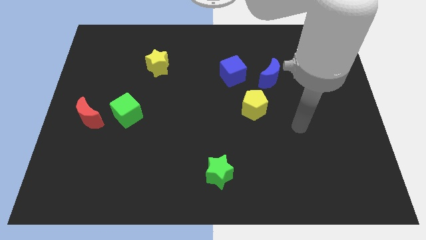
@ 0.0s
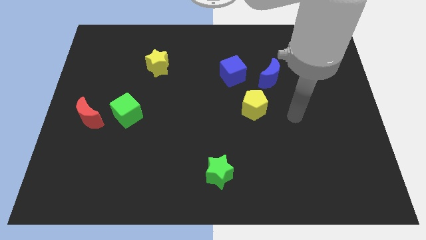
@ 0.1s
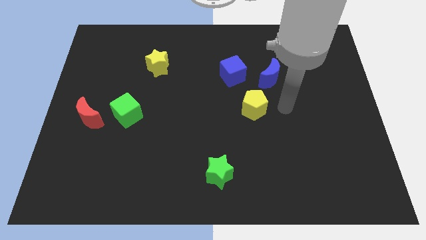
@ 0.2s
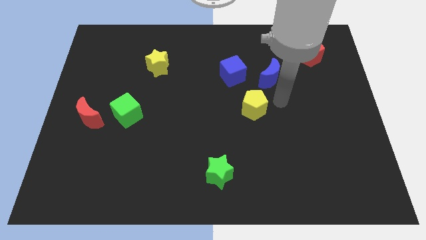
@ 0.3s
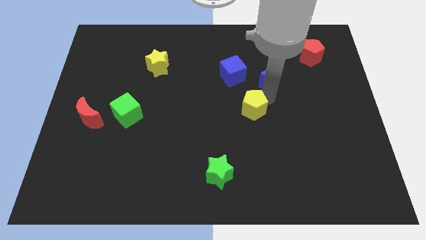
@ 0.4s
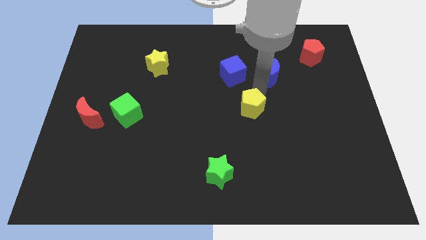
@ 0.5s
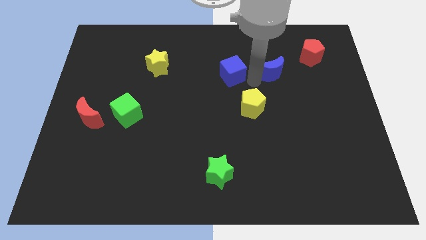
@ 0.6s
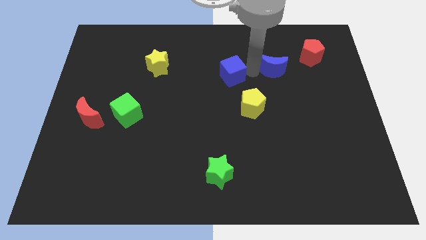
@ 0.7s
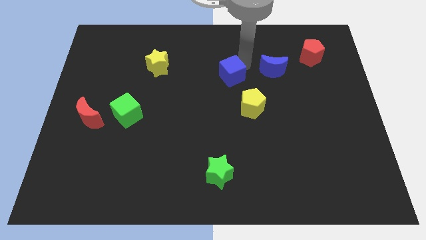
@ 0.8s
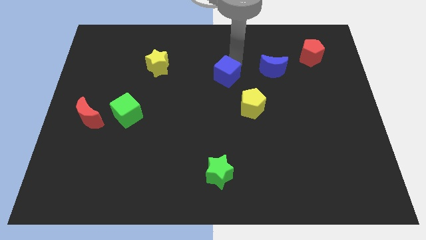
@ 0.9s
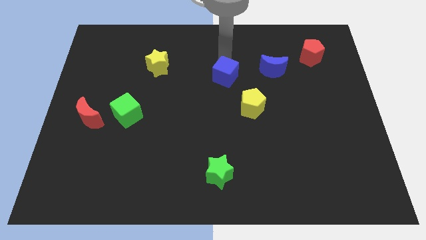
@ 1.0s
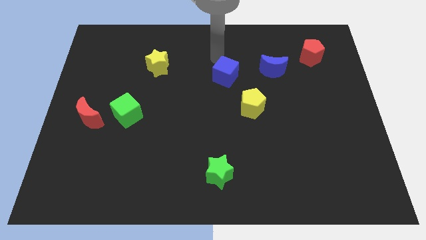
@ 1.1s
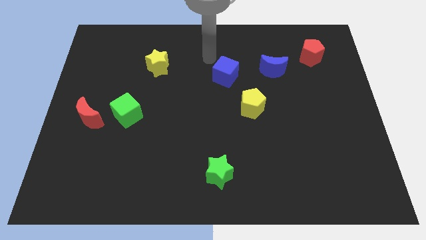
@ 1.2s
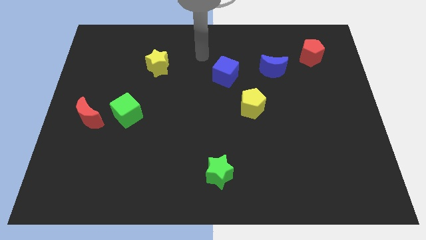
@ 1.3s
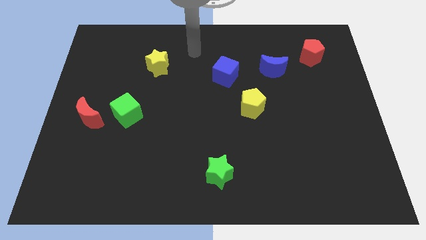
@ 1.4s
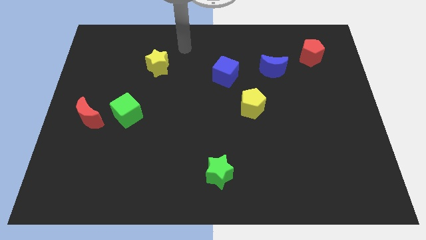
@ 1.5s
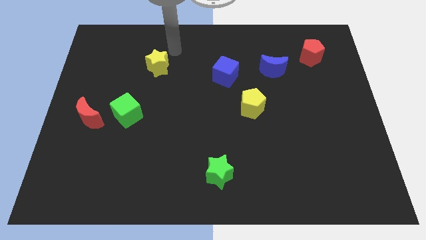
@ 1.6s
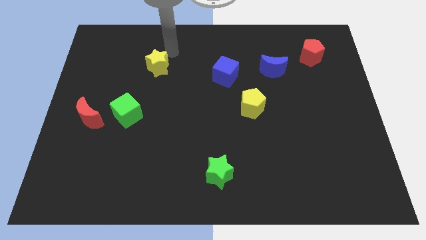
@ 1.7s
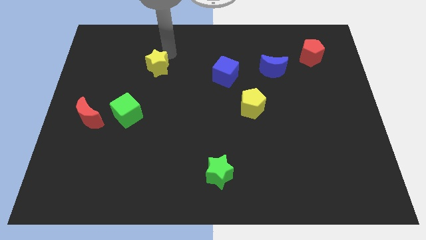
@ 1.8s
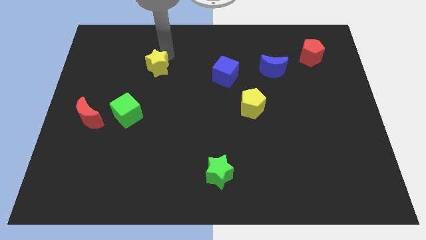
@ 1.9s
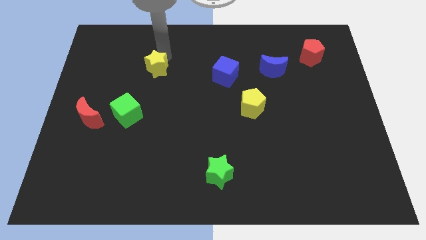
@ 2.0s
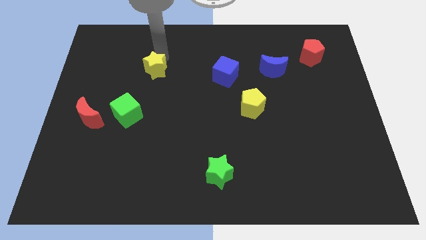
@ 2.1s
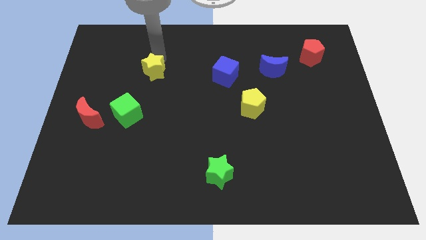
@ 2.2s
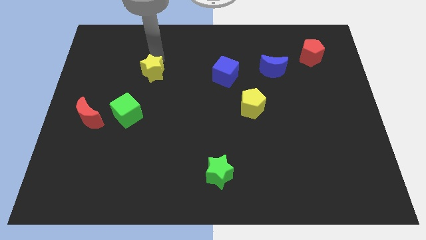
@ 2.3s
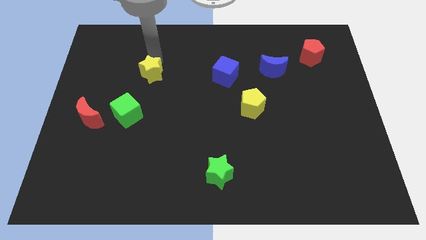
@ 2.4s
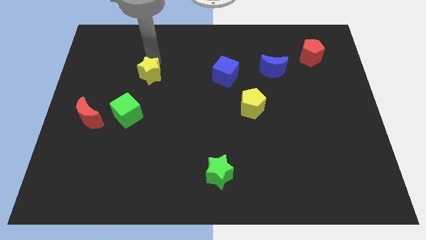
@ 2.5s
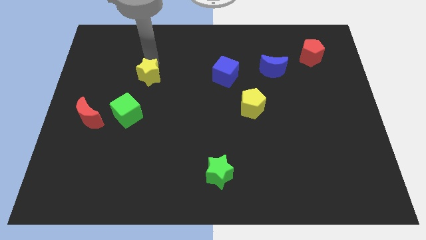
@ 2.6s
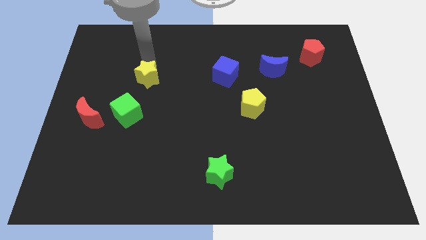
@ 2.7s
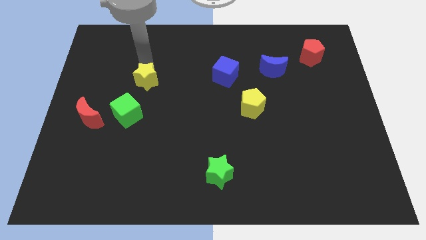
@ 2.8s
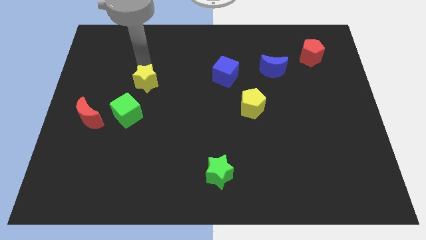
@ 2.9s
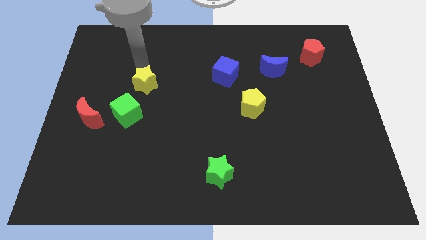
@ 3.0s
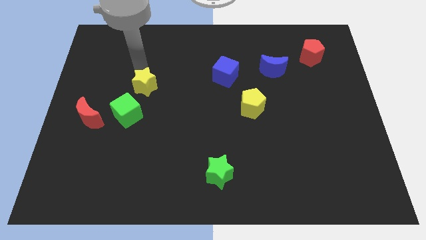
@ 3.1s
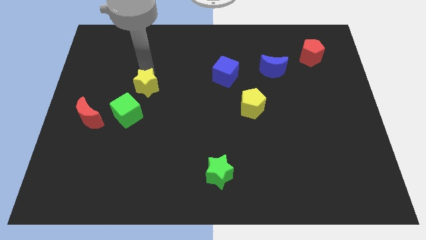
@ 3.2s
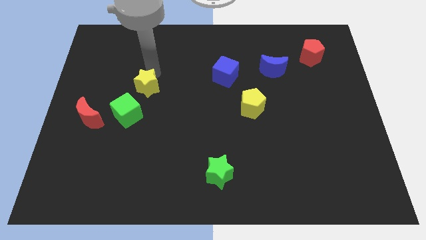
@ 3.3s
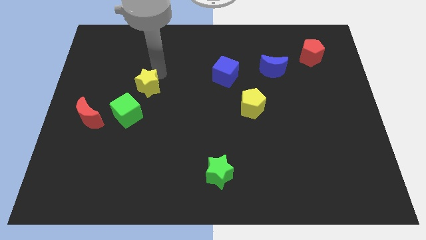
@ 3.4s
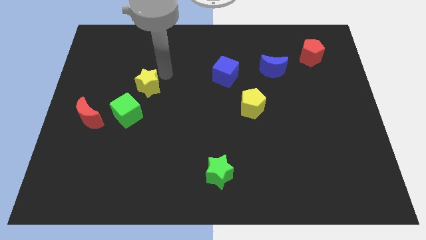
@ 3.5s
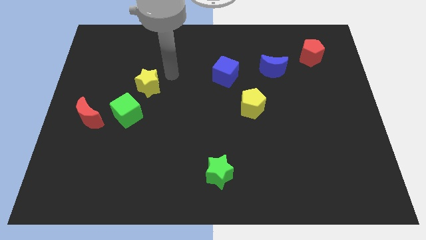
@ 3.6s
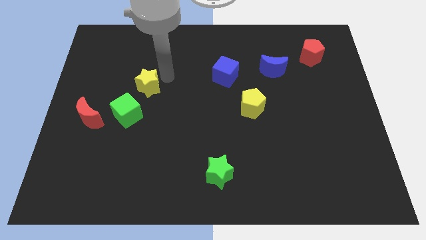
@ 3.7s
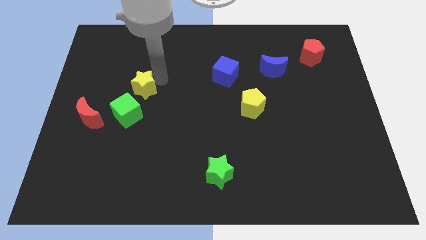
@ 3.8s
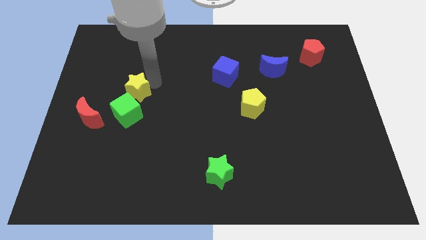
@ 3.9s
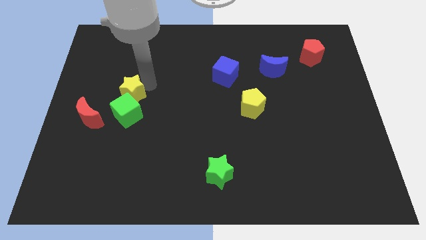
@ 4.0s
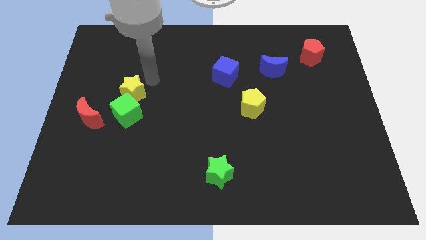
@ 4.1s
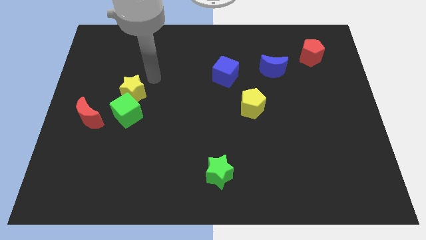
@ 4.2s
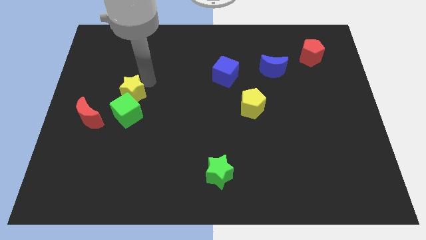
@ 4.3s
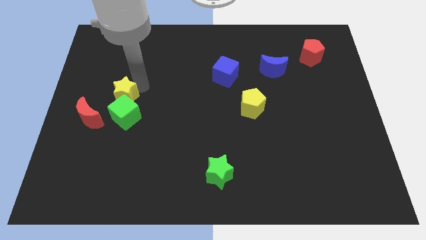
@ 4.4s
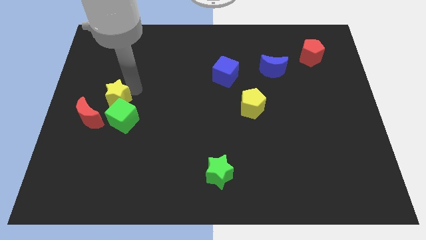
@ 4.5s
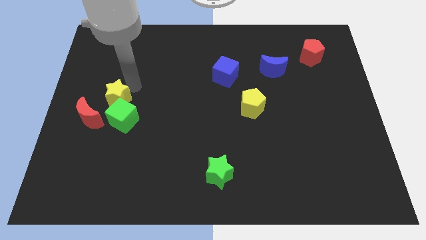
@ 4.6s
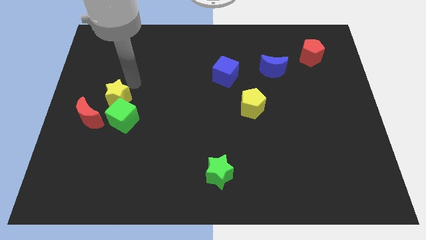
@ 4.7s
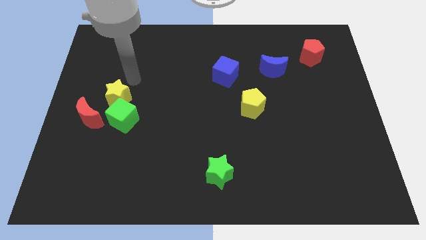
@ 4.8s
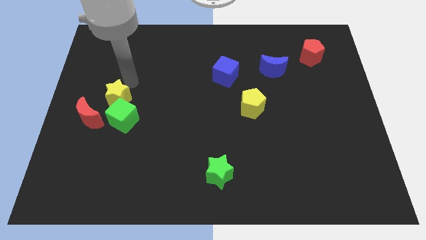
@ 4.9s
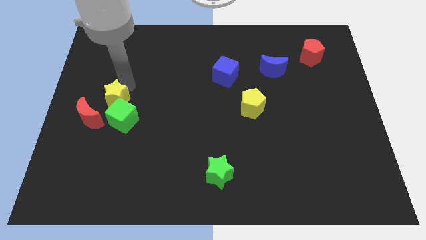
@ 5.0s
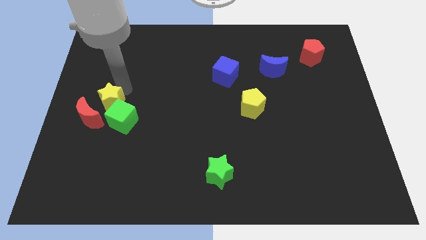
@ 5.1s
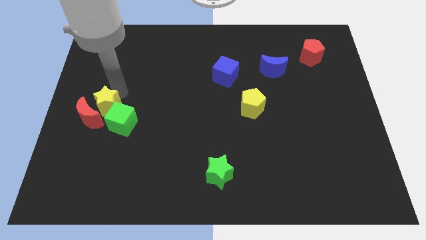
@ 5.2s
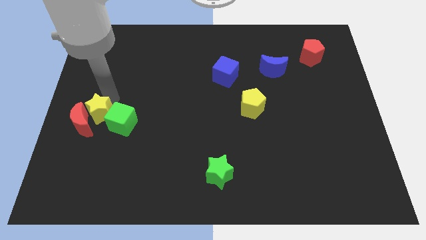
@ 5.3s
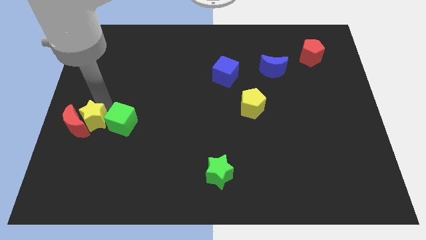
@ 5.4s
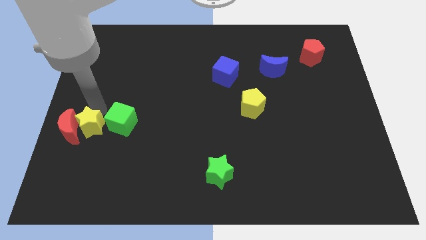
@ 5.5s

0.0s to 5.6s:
move the yellow star diagonally down and to the left of the green cube

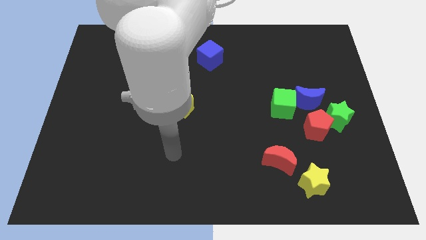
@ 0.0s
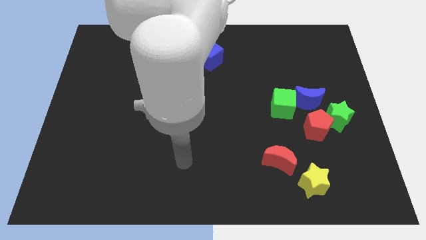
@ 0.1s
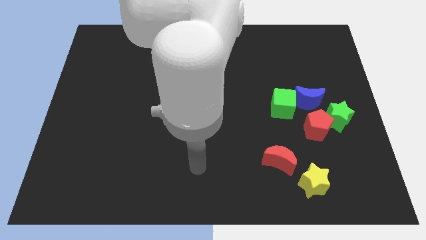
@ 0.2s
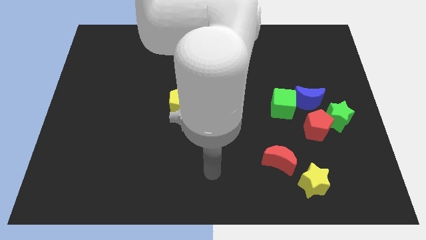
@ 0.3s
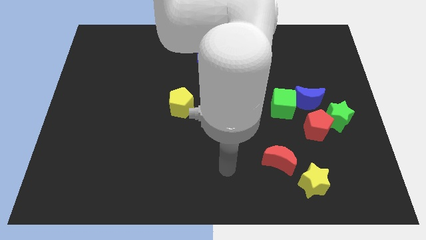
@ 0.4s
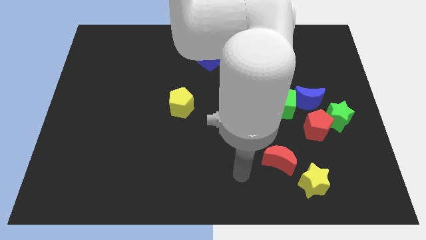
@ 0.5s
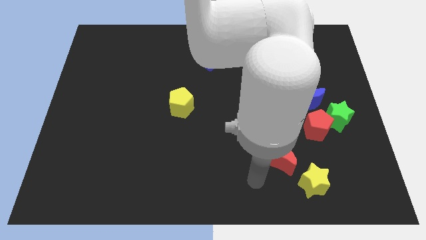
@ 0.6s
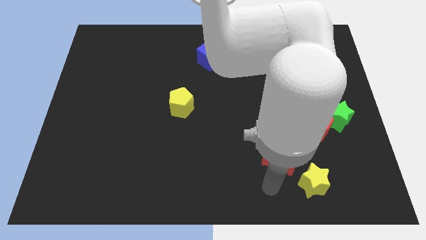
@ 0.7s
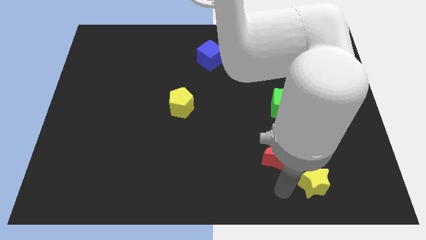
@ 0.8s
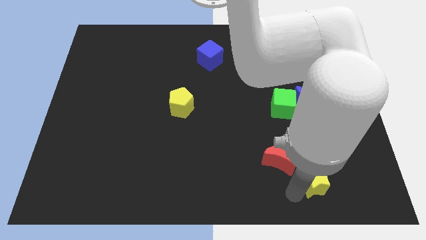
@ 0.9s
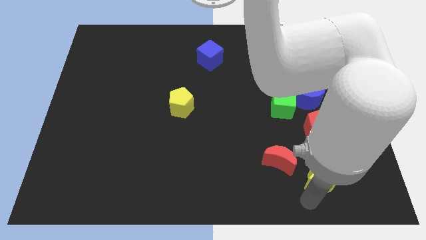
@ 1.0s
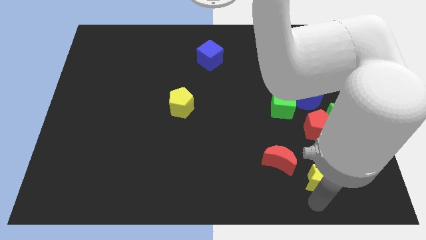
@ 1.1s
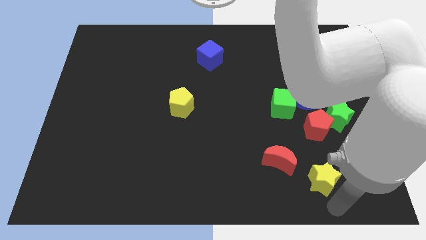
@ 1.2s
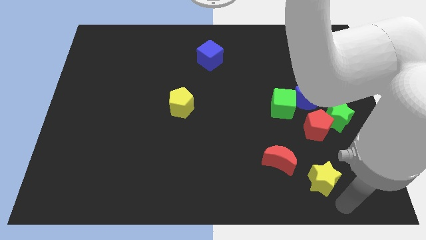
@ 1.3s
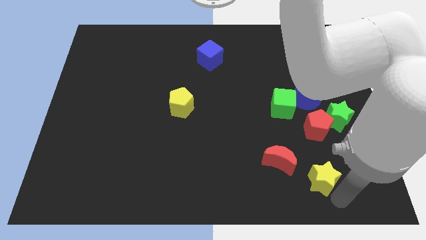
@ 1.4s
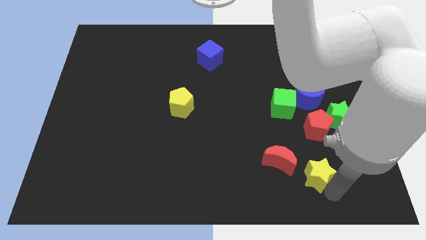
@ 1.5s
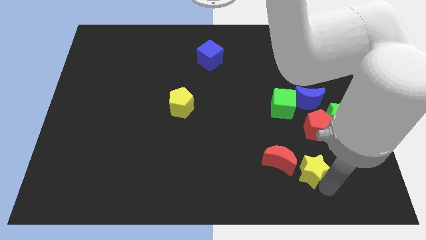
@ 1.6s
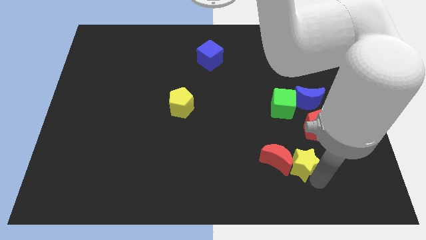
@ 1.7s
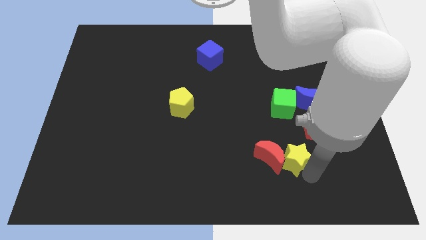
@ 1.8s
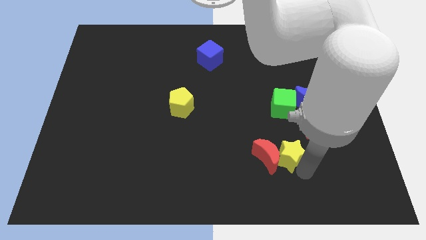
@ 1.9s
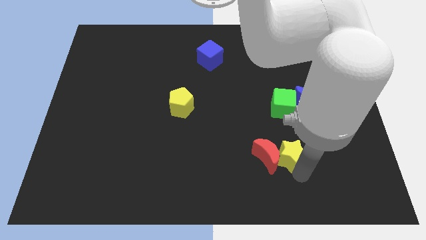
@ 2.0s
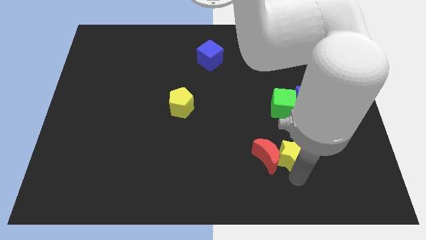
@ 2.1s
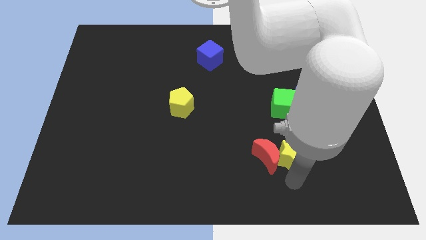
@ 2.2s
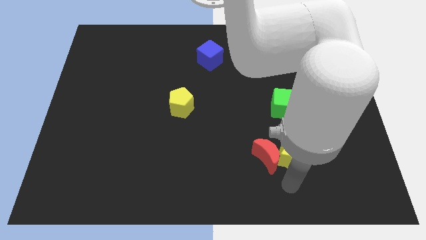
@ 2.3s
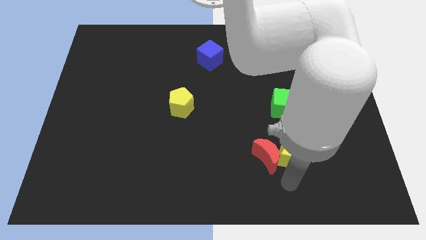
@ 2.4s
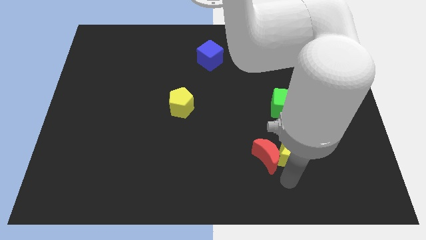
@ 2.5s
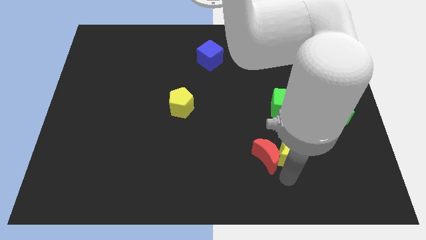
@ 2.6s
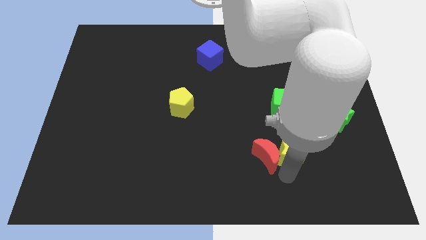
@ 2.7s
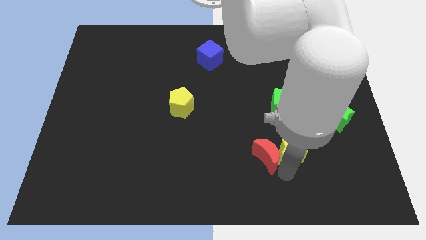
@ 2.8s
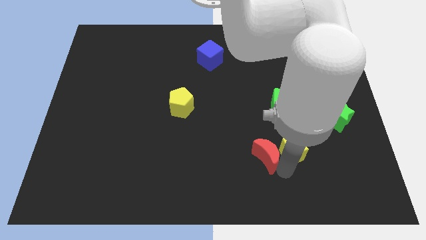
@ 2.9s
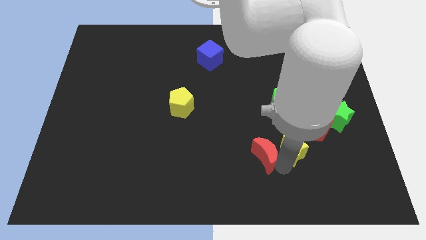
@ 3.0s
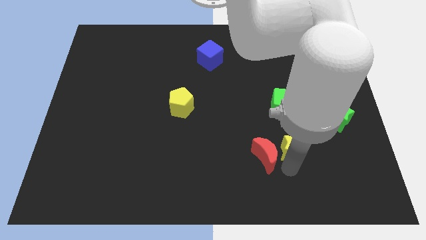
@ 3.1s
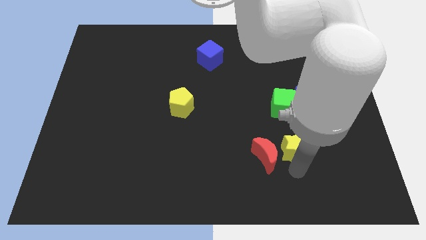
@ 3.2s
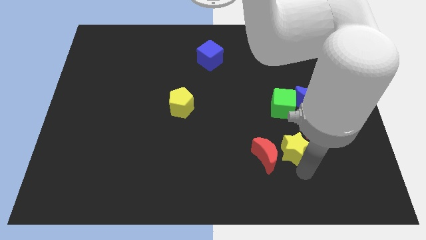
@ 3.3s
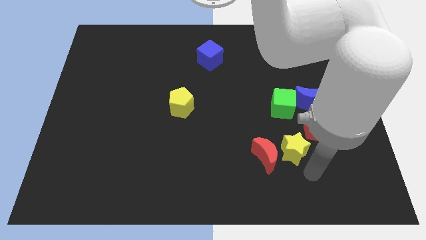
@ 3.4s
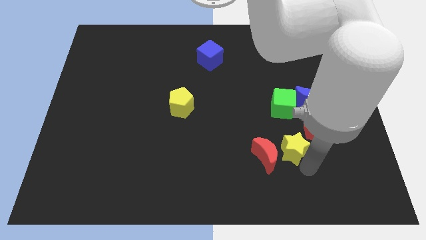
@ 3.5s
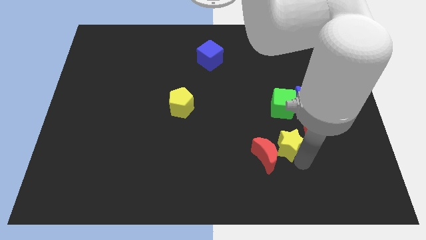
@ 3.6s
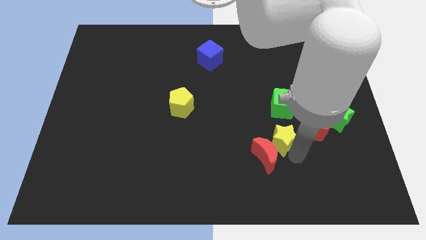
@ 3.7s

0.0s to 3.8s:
push the yellow star to the left of the red pentagon
